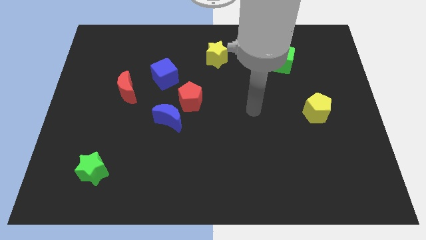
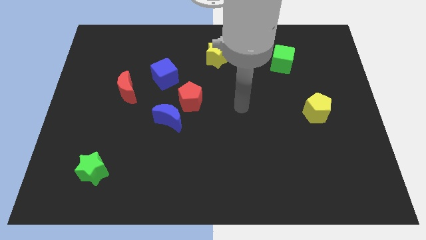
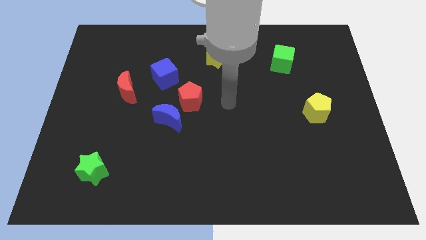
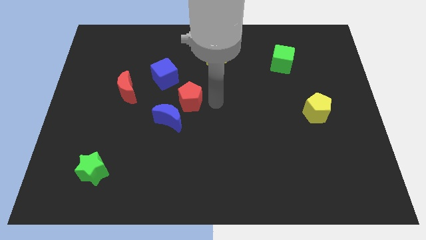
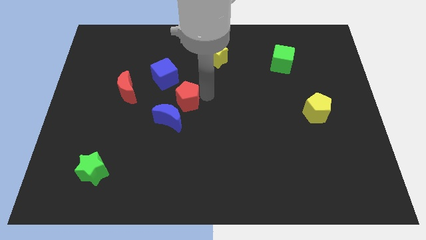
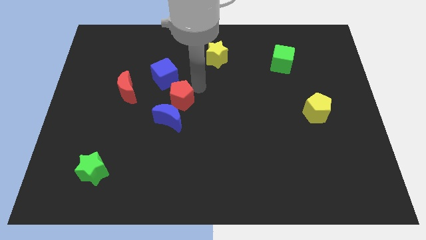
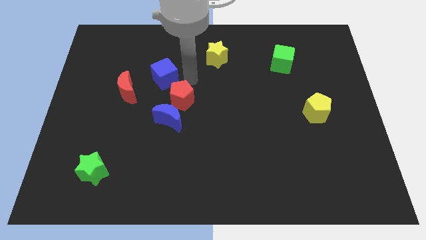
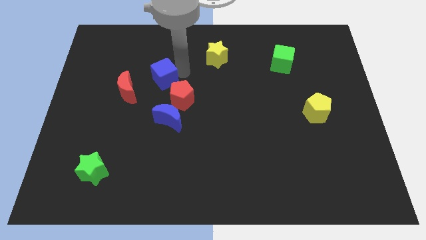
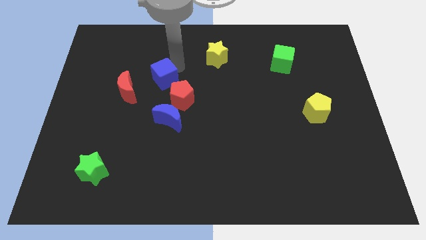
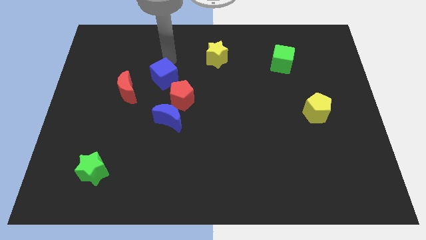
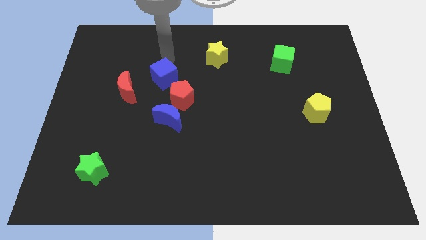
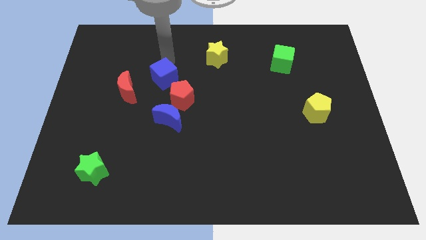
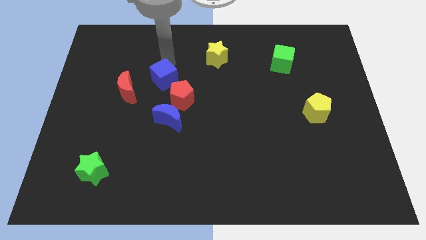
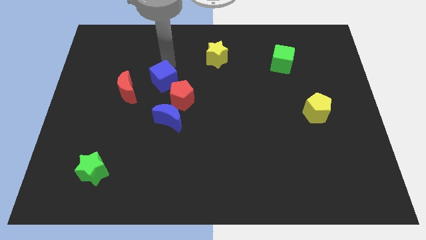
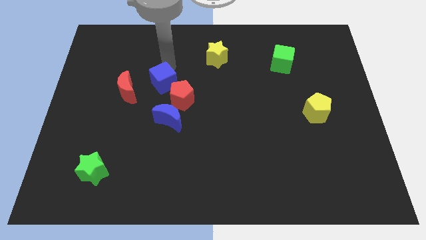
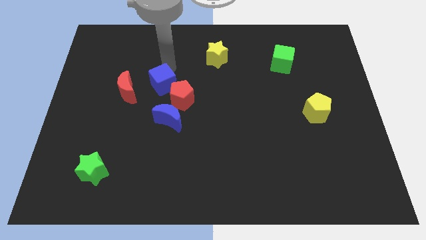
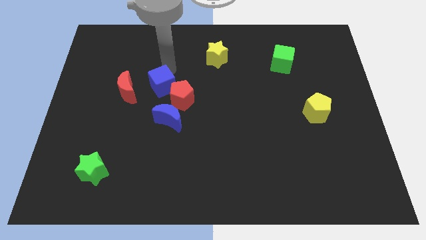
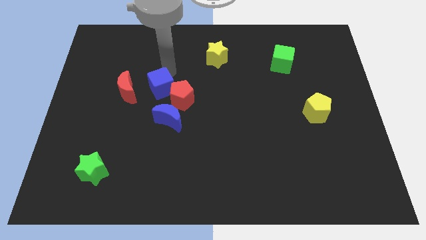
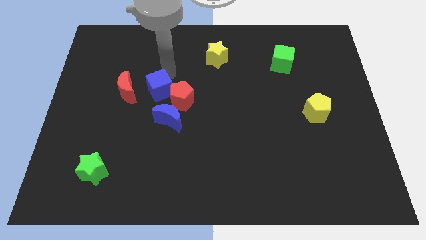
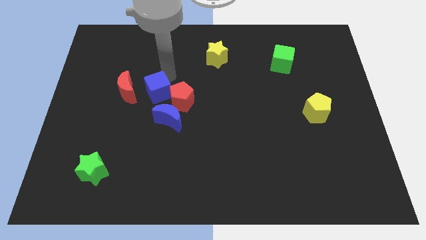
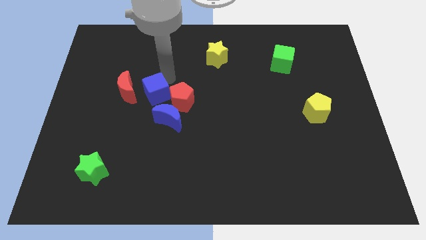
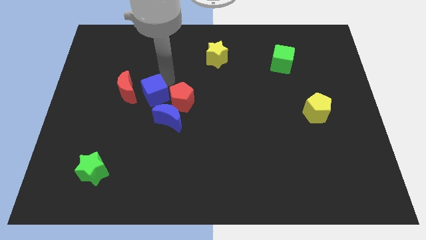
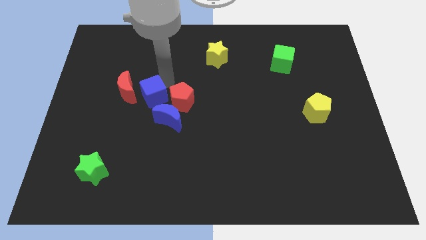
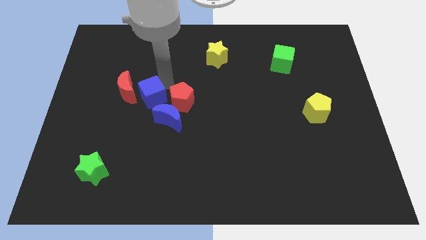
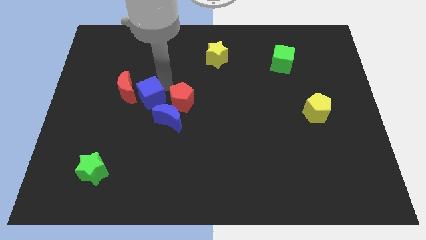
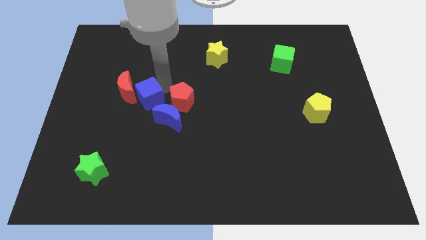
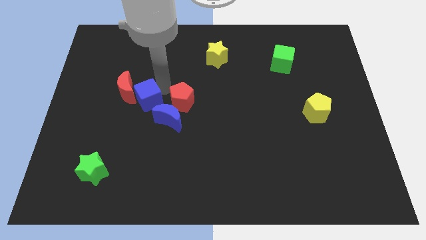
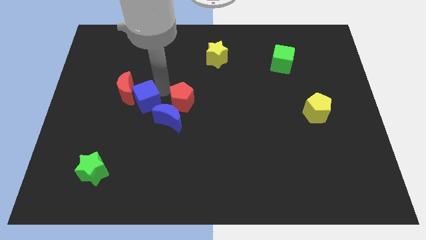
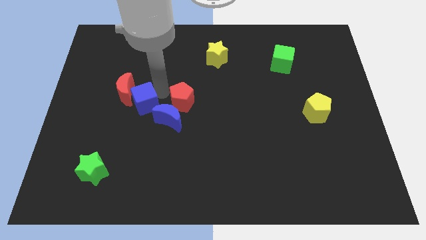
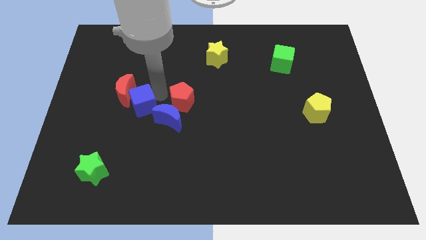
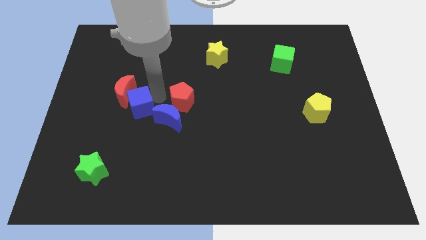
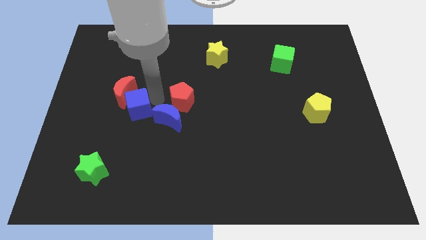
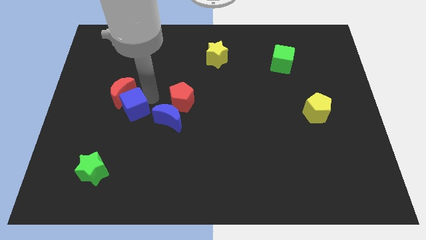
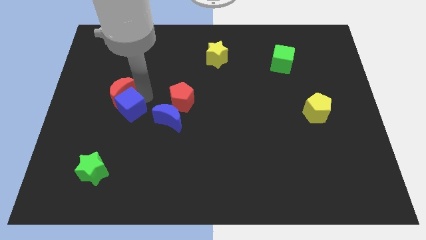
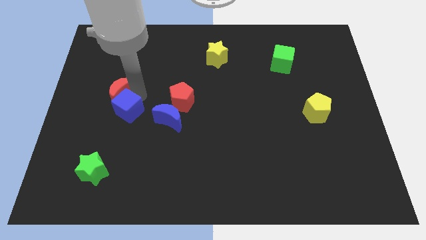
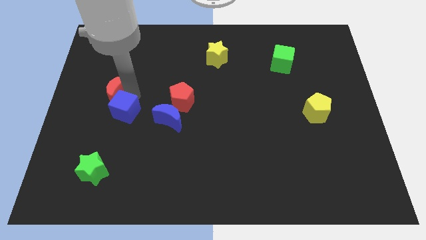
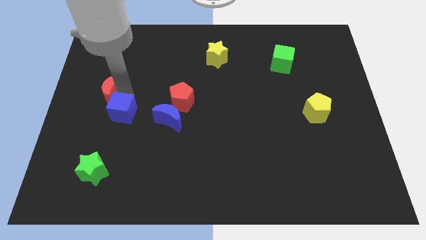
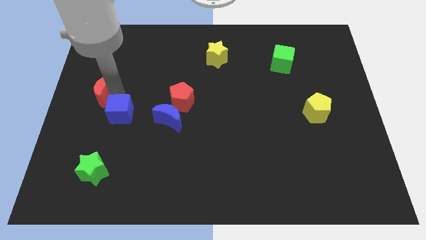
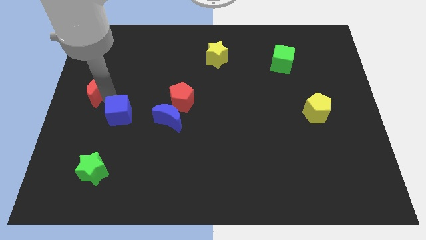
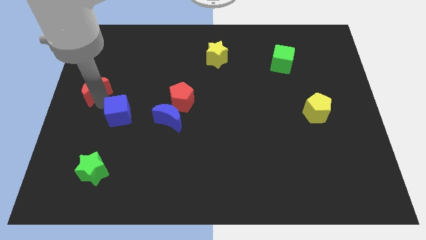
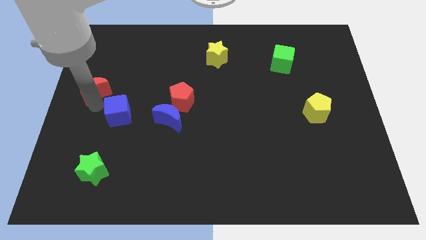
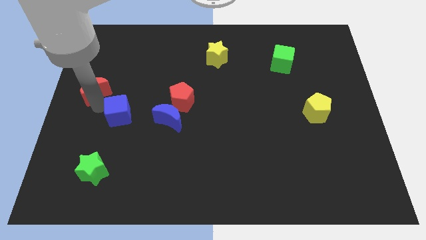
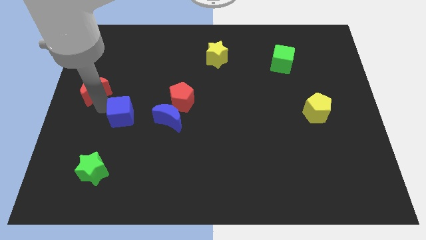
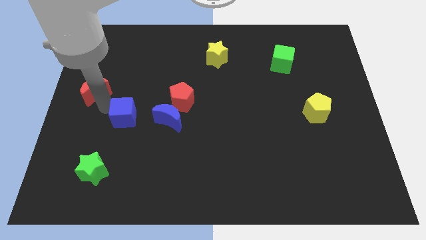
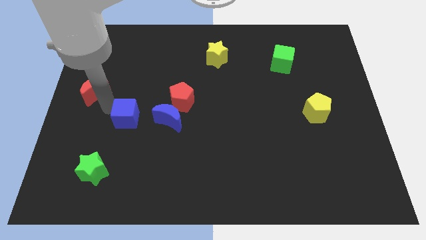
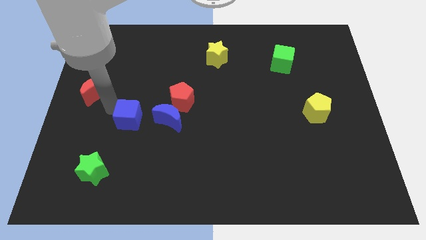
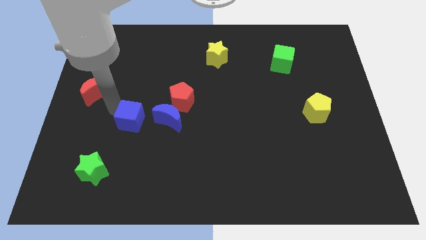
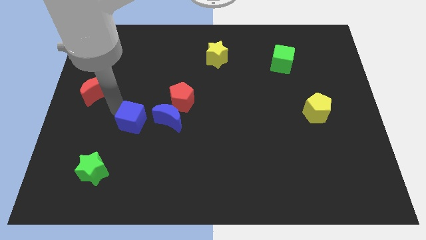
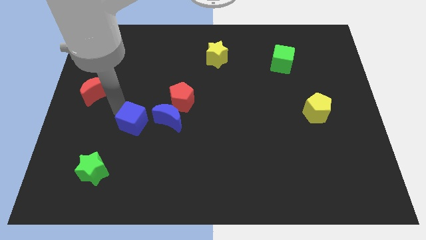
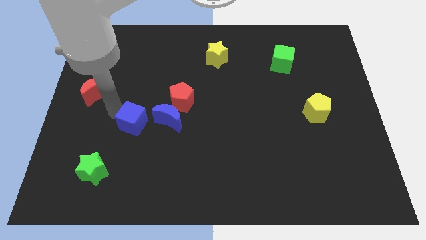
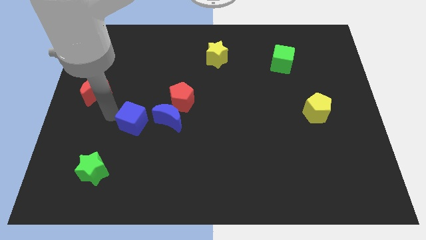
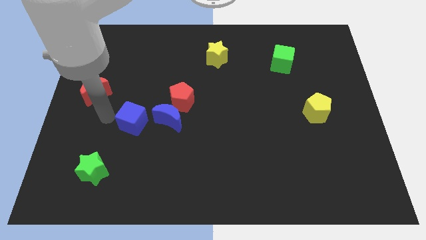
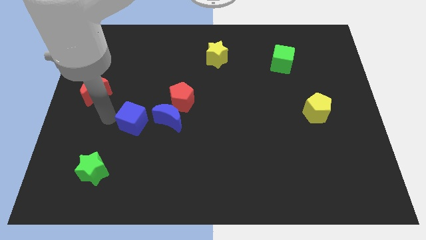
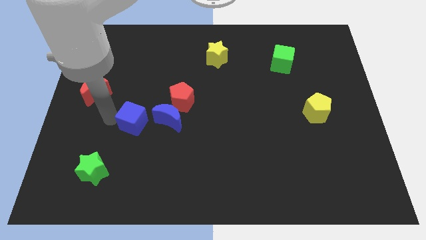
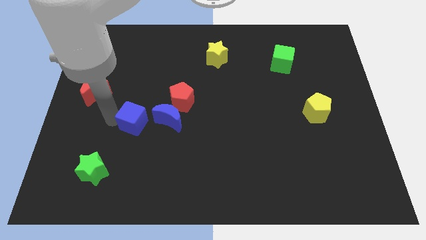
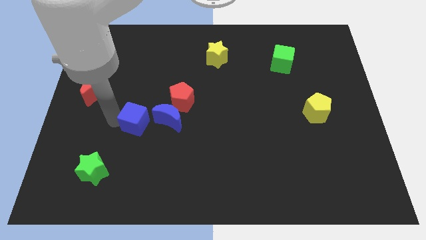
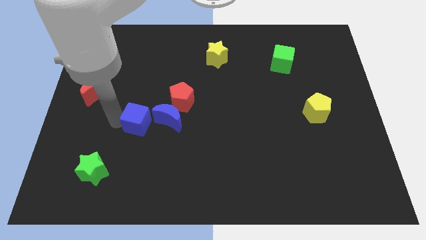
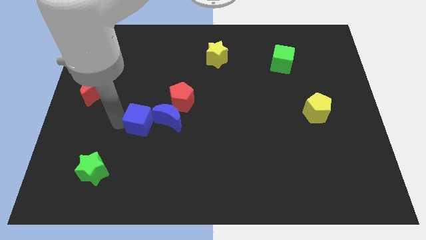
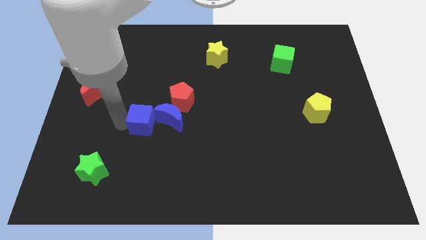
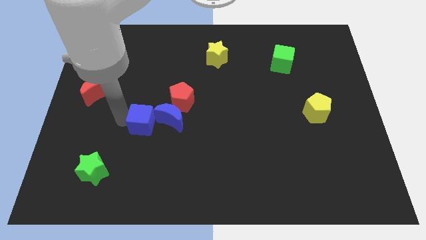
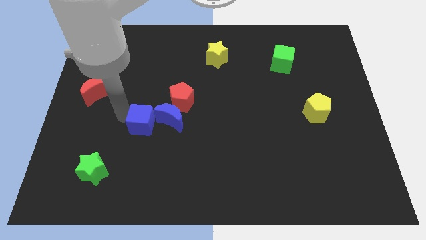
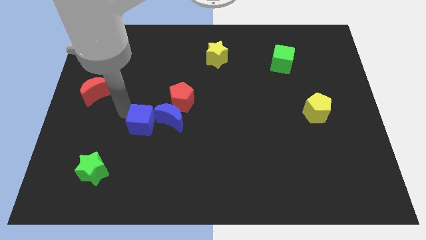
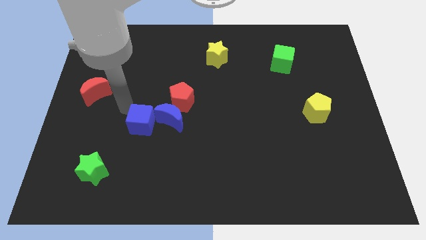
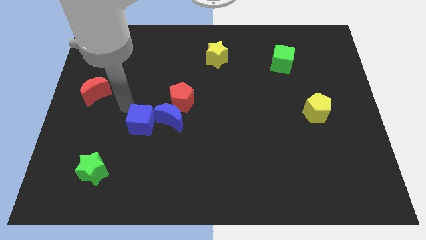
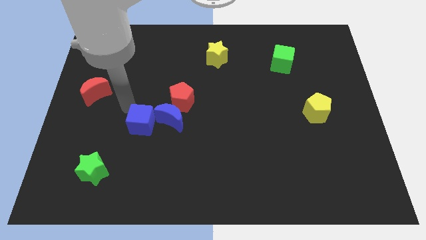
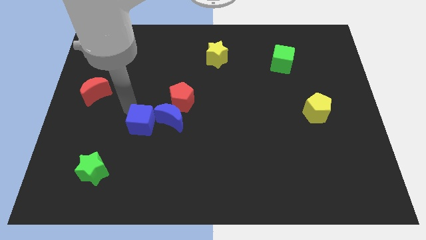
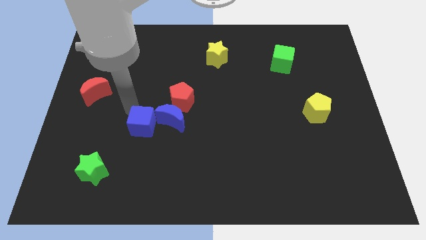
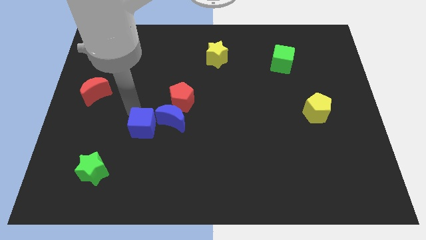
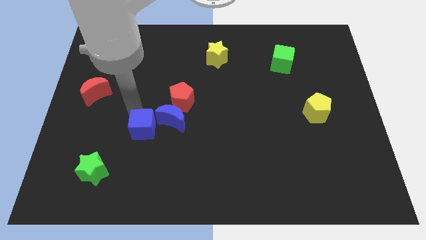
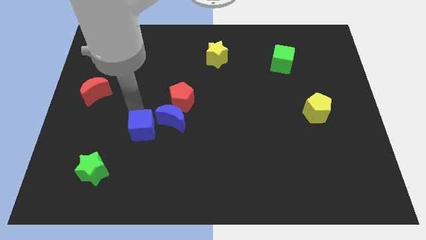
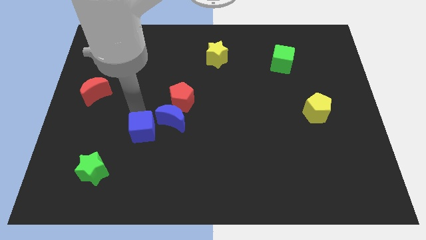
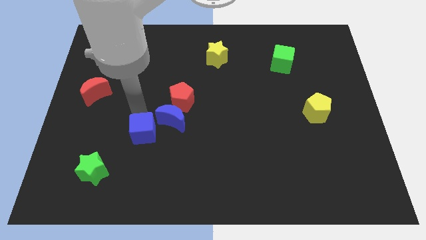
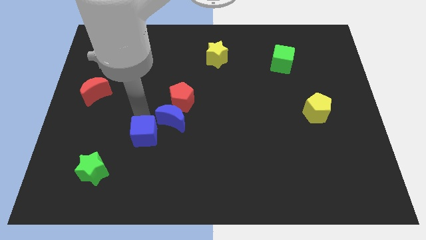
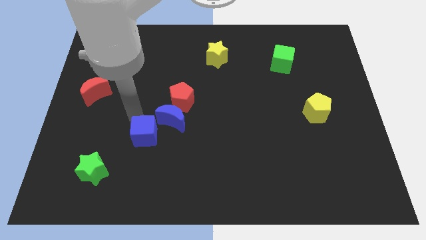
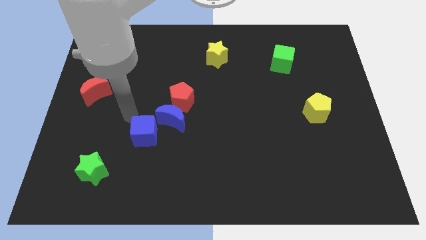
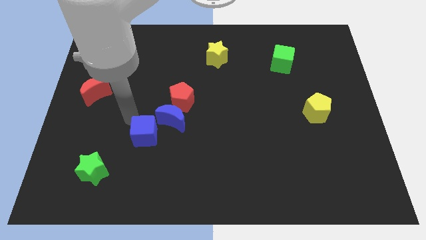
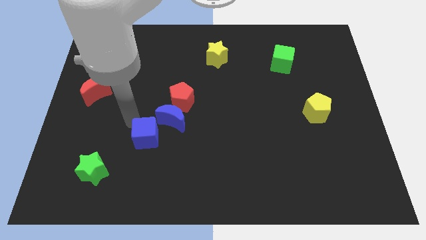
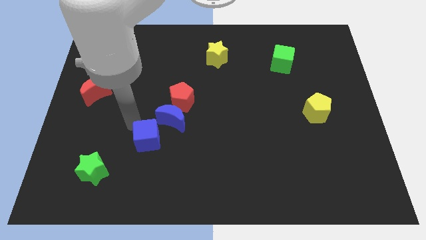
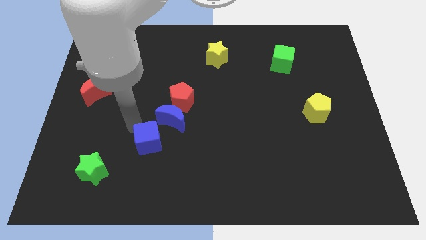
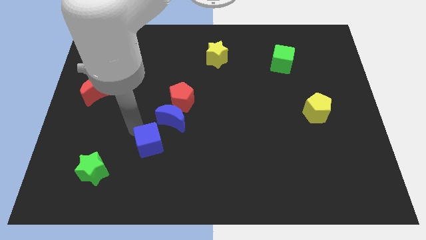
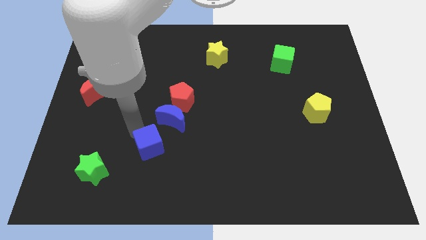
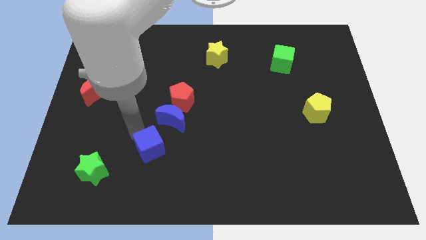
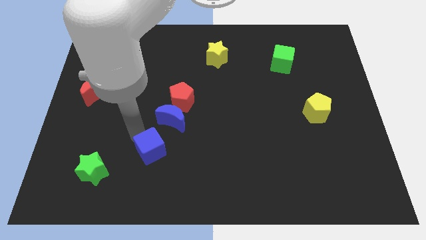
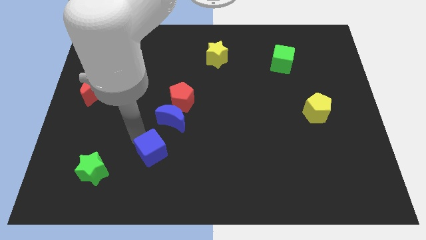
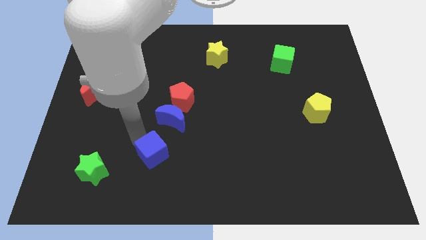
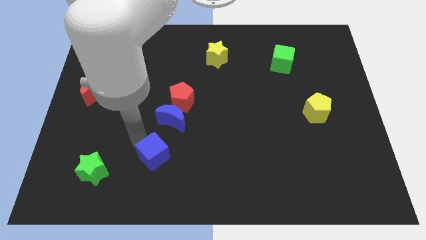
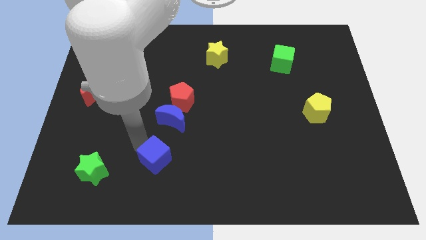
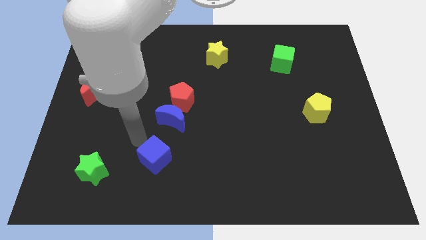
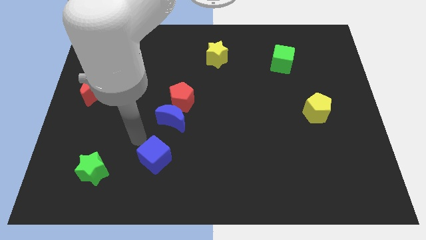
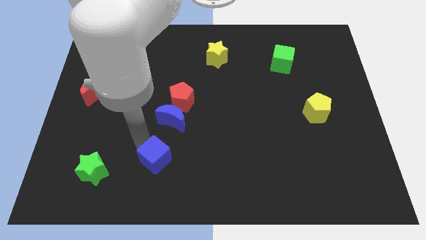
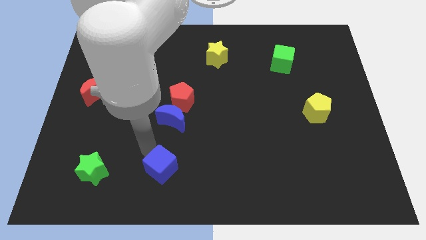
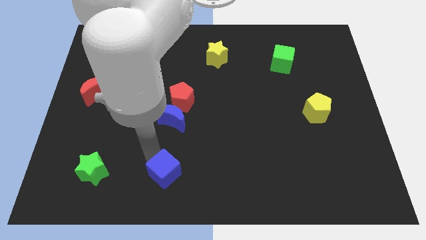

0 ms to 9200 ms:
move the blue cube to the bottom side
